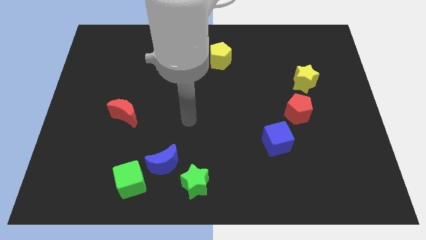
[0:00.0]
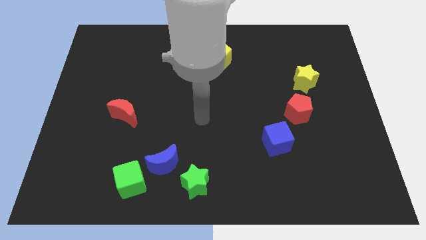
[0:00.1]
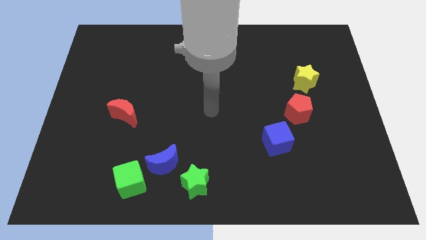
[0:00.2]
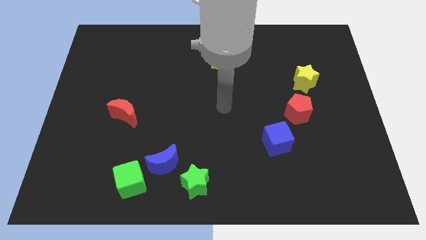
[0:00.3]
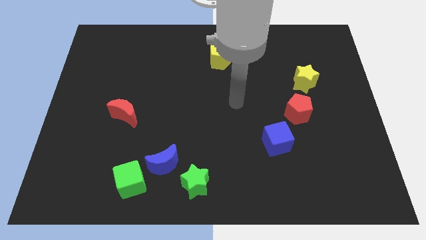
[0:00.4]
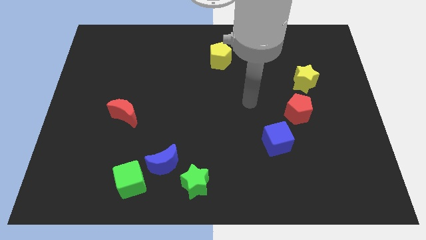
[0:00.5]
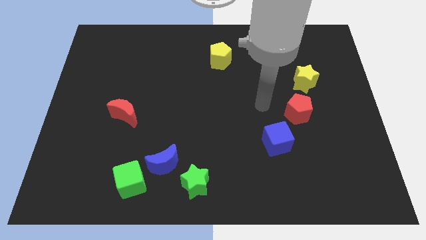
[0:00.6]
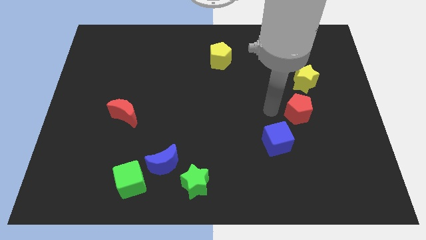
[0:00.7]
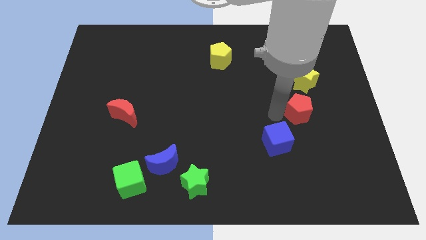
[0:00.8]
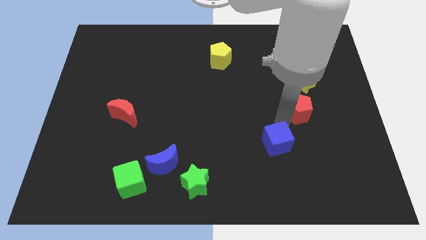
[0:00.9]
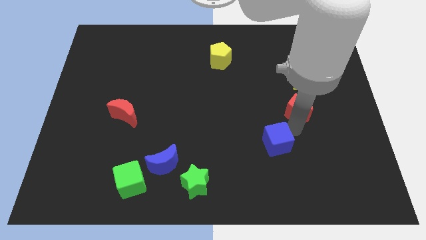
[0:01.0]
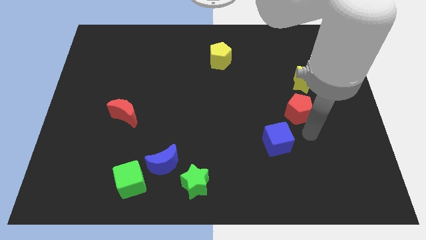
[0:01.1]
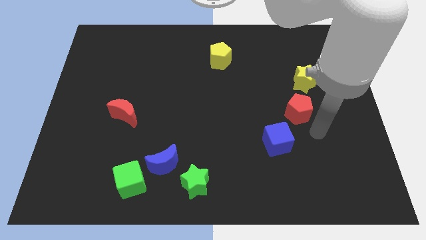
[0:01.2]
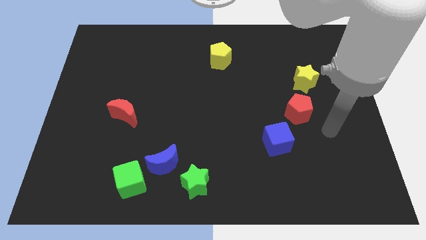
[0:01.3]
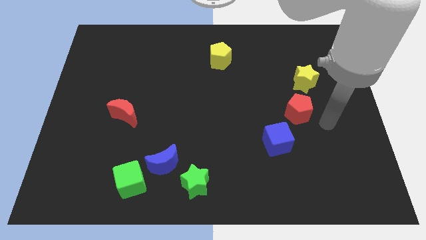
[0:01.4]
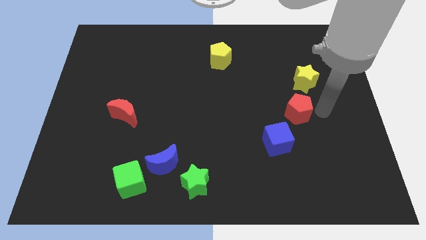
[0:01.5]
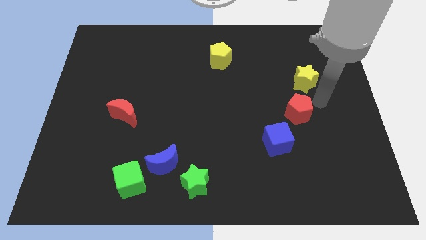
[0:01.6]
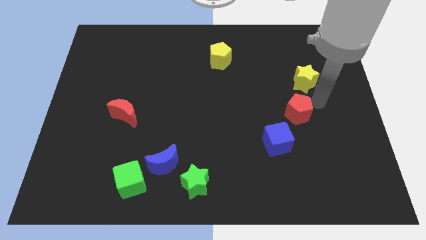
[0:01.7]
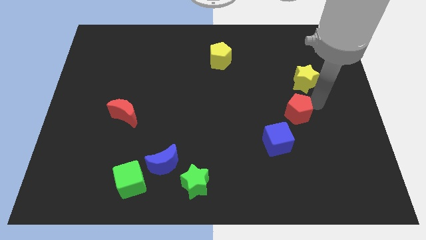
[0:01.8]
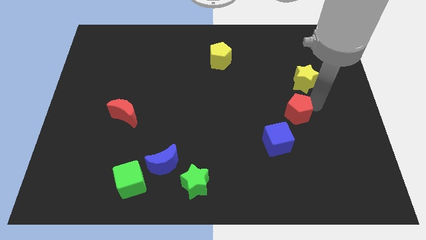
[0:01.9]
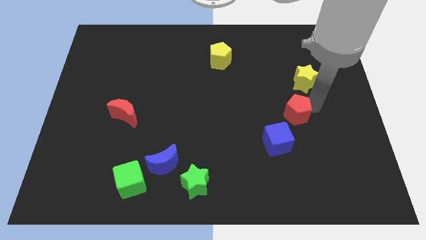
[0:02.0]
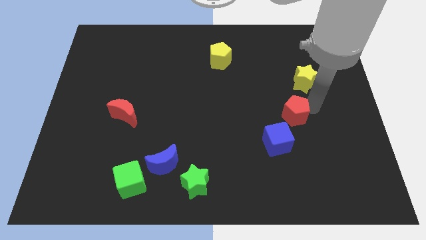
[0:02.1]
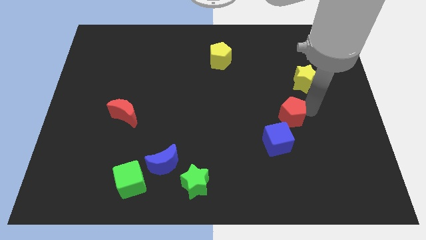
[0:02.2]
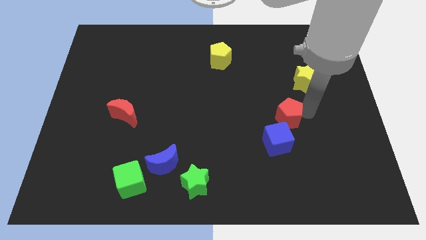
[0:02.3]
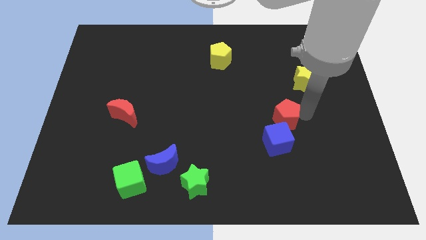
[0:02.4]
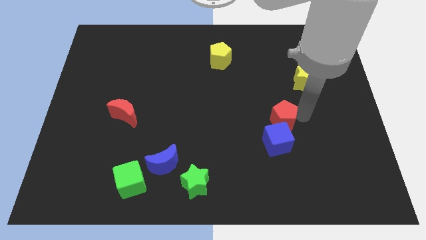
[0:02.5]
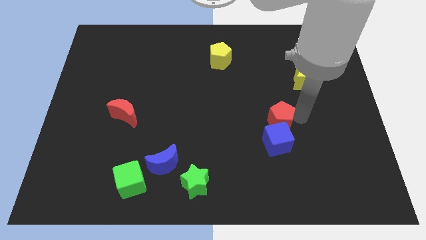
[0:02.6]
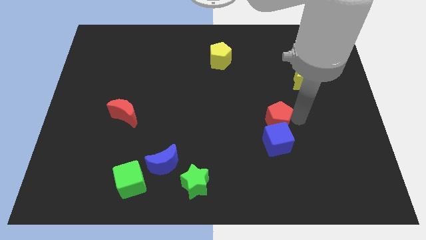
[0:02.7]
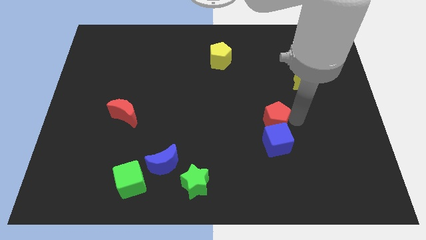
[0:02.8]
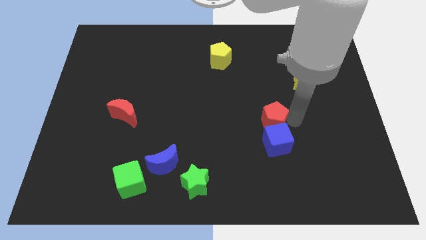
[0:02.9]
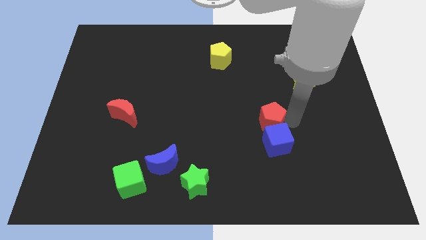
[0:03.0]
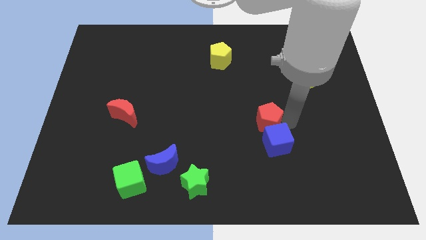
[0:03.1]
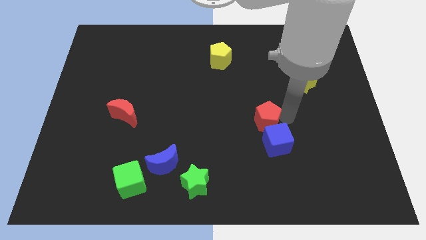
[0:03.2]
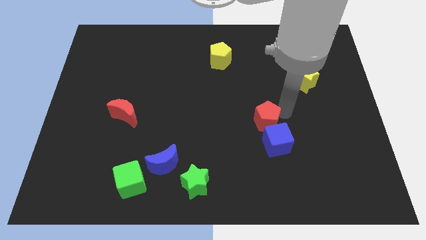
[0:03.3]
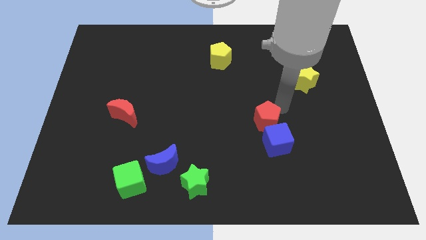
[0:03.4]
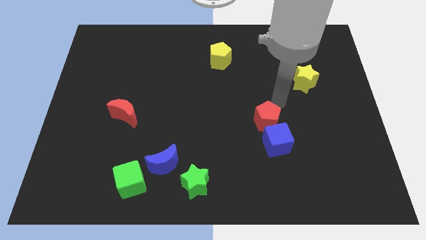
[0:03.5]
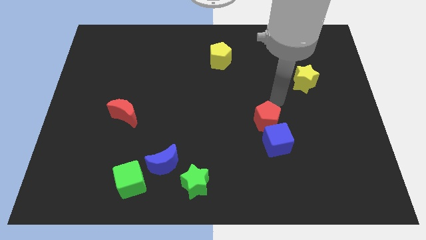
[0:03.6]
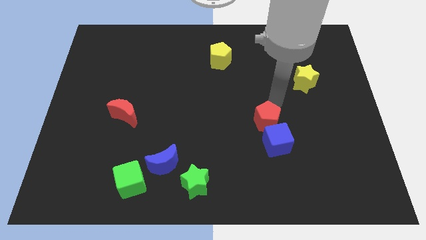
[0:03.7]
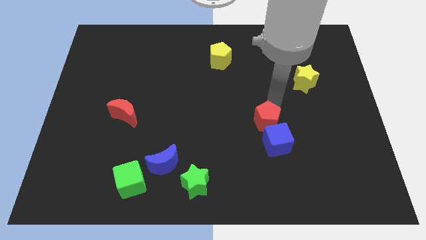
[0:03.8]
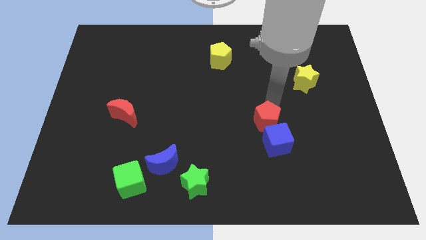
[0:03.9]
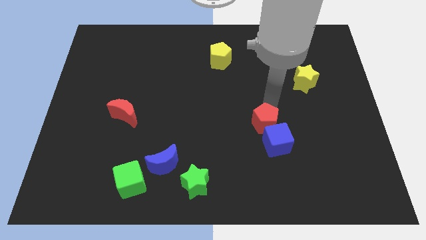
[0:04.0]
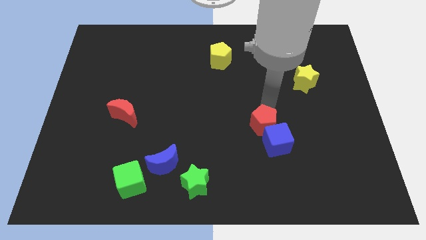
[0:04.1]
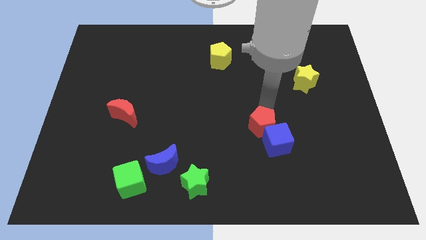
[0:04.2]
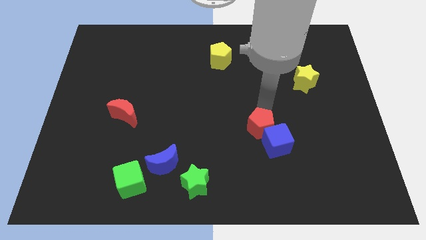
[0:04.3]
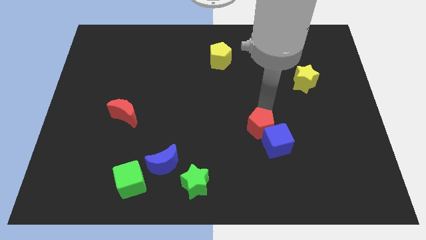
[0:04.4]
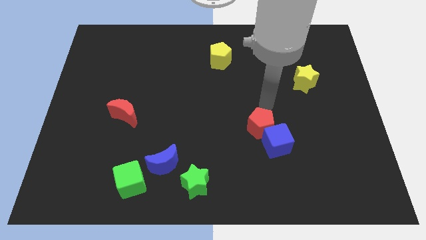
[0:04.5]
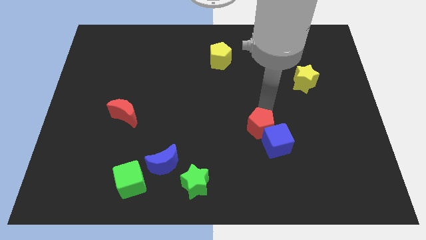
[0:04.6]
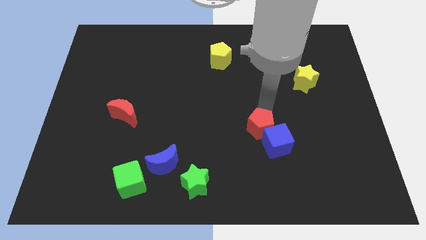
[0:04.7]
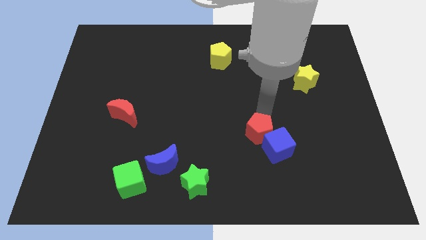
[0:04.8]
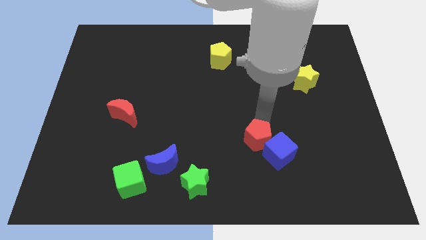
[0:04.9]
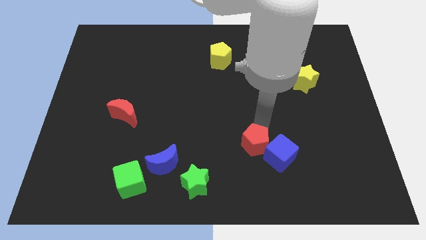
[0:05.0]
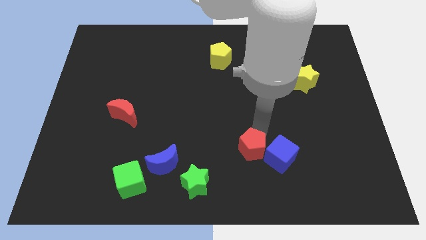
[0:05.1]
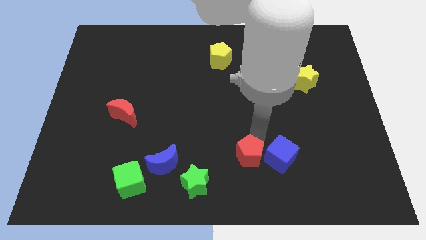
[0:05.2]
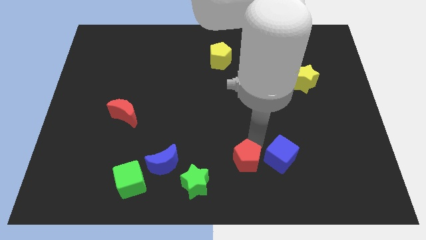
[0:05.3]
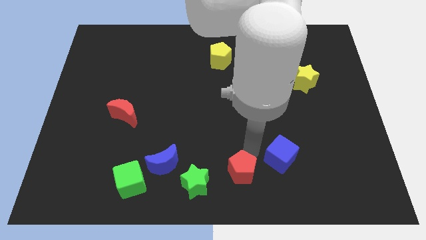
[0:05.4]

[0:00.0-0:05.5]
push the red pentagon to the bottom

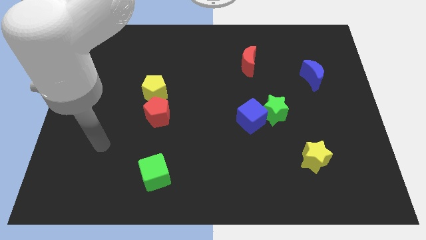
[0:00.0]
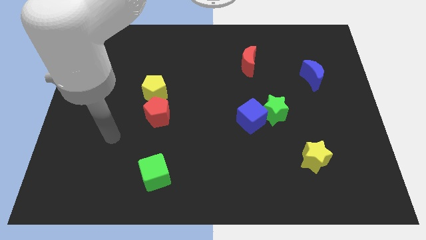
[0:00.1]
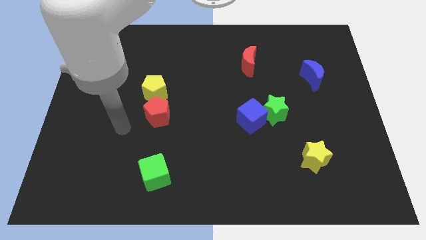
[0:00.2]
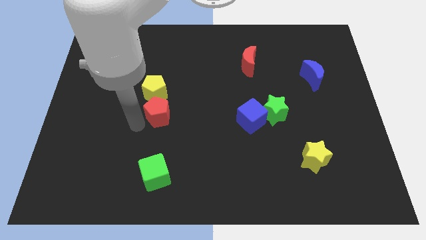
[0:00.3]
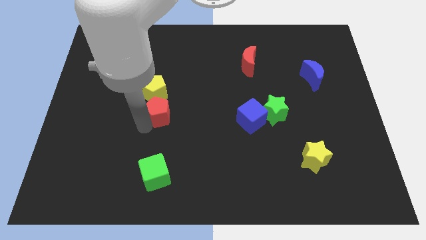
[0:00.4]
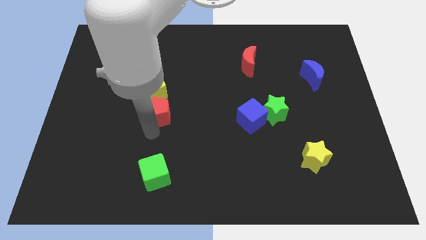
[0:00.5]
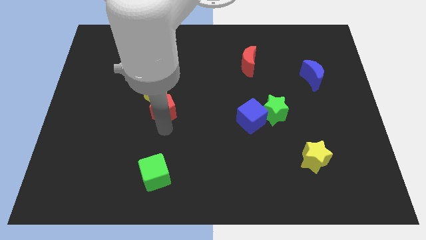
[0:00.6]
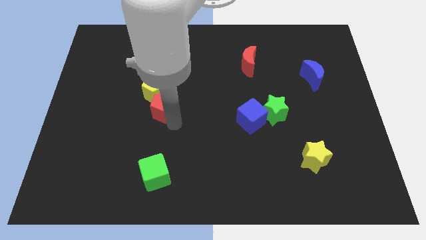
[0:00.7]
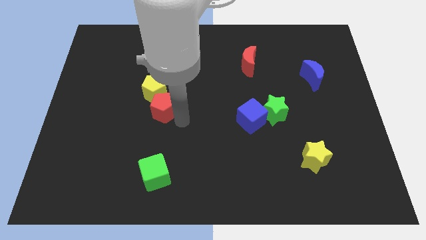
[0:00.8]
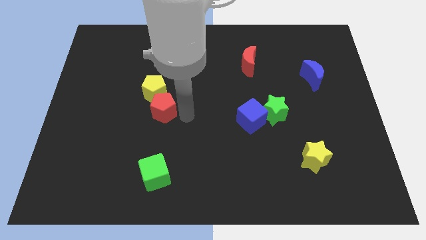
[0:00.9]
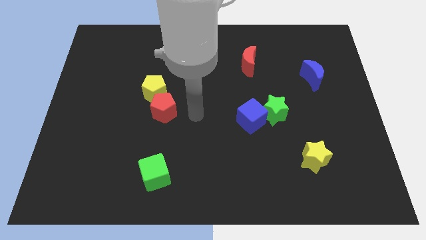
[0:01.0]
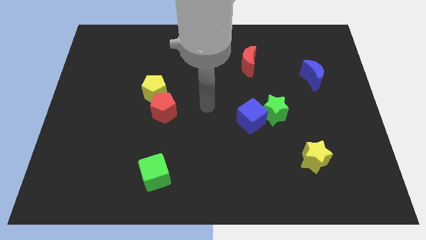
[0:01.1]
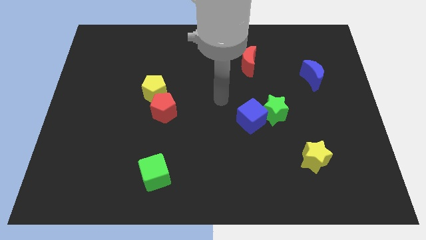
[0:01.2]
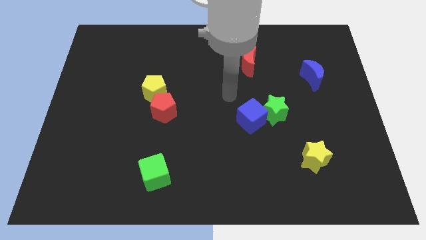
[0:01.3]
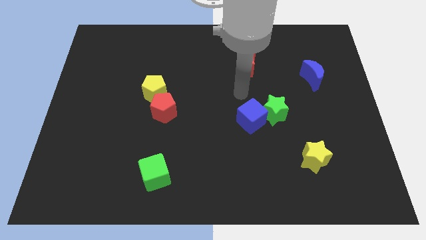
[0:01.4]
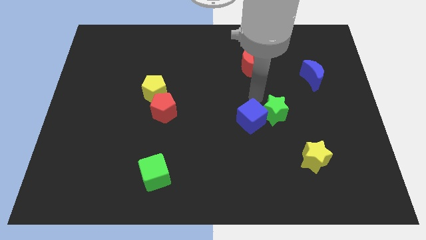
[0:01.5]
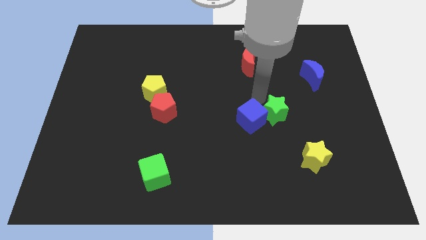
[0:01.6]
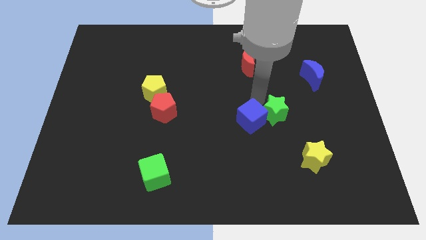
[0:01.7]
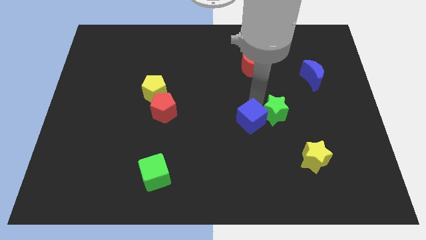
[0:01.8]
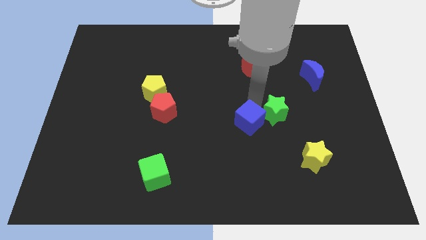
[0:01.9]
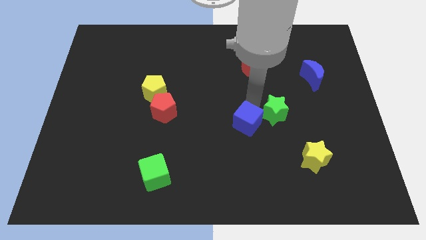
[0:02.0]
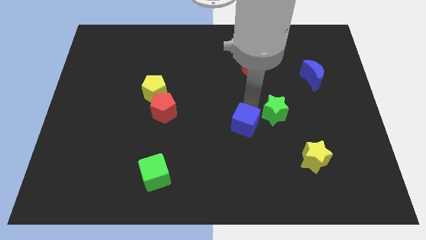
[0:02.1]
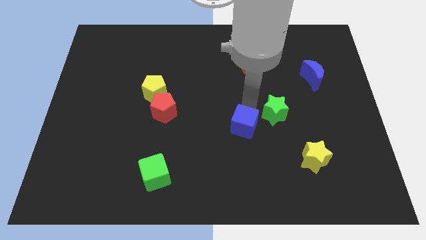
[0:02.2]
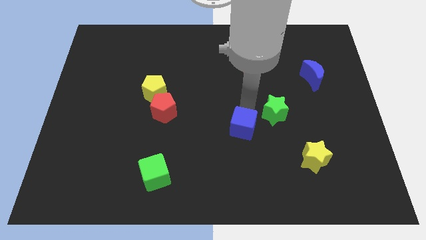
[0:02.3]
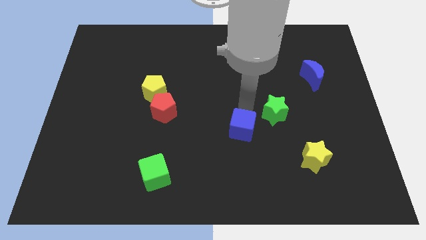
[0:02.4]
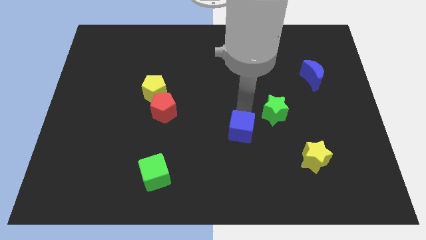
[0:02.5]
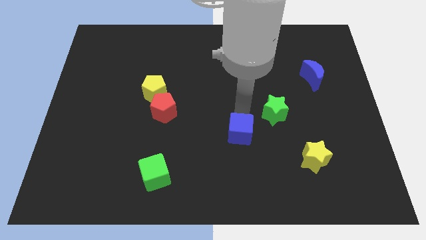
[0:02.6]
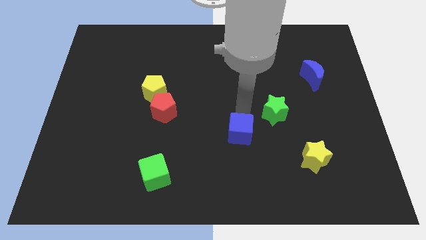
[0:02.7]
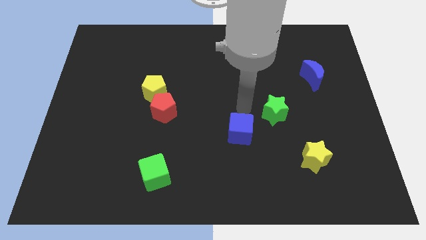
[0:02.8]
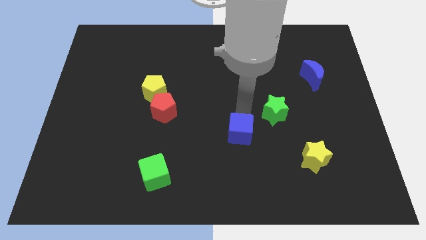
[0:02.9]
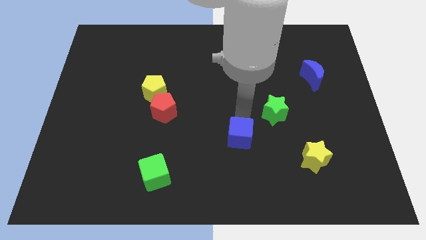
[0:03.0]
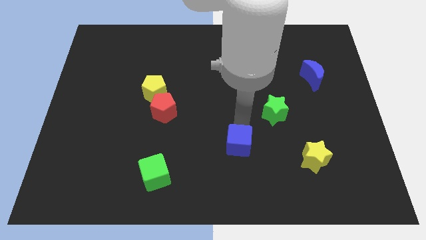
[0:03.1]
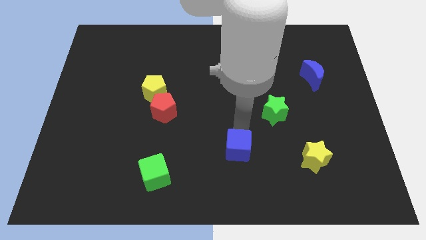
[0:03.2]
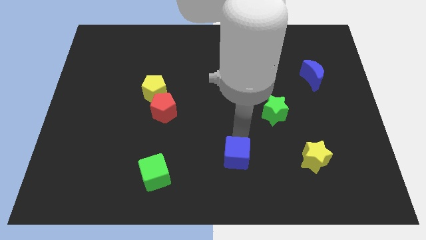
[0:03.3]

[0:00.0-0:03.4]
push the blue cube to the bottom
